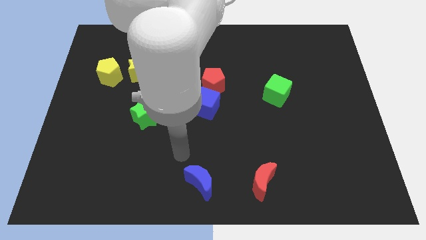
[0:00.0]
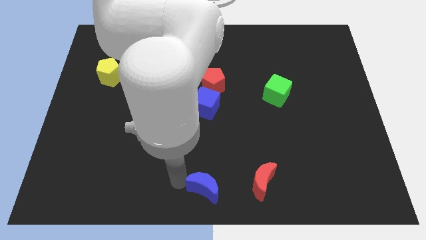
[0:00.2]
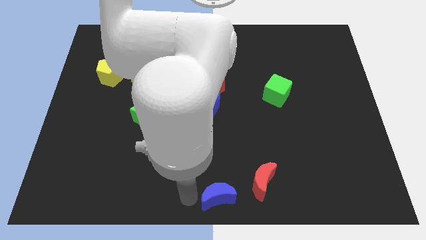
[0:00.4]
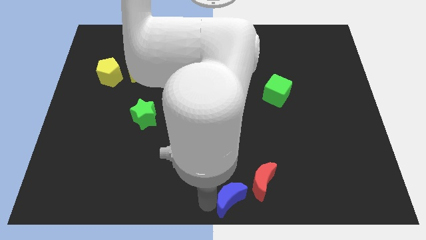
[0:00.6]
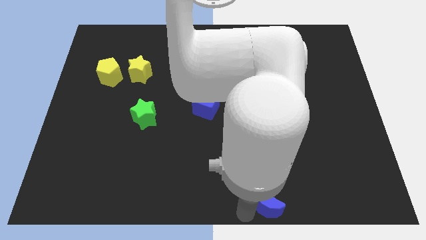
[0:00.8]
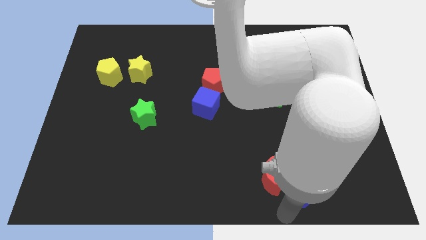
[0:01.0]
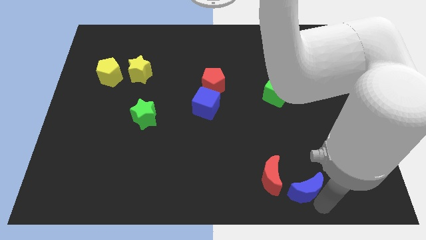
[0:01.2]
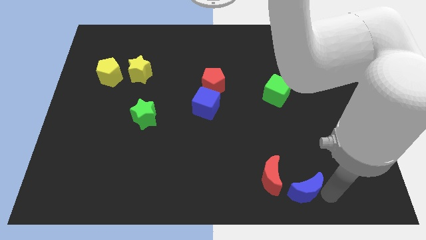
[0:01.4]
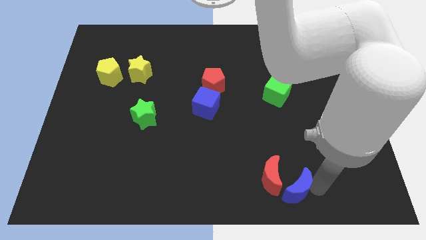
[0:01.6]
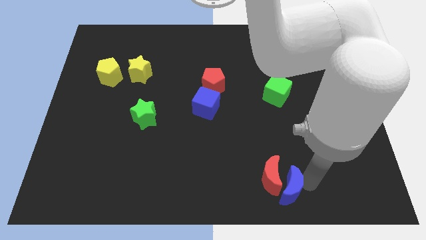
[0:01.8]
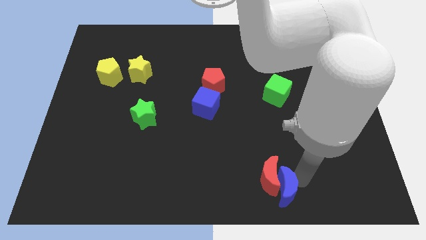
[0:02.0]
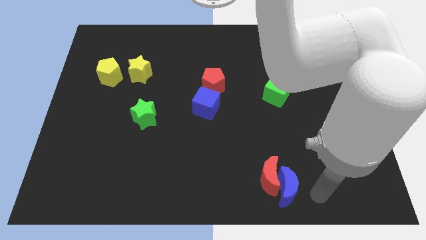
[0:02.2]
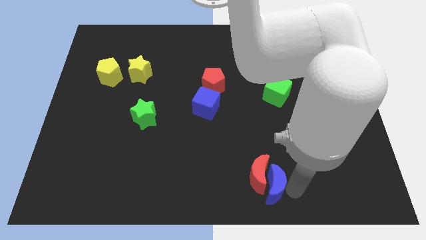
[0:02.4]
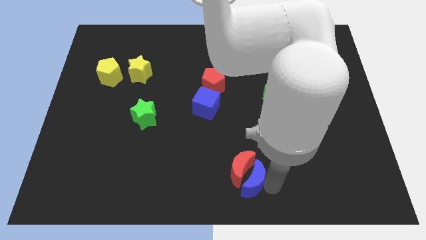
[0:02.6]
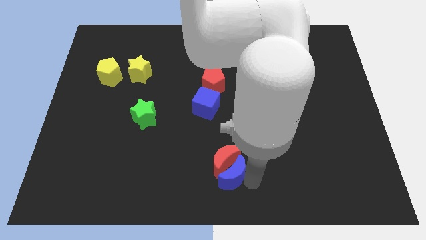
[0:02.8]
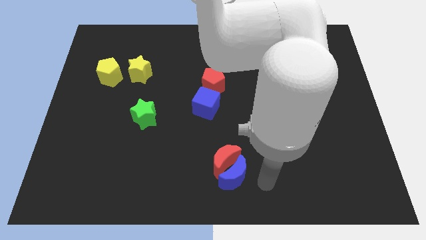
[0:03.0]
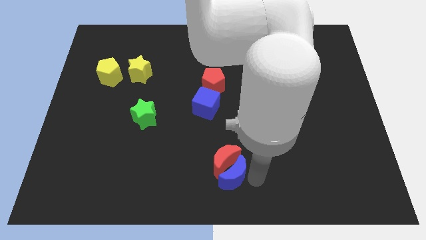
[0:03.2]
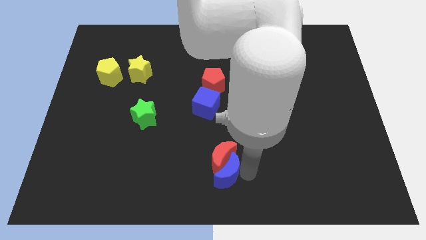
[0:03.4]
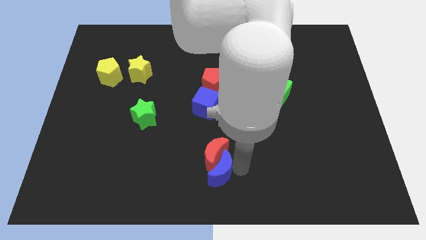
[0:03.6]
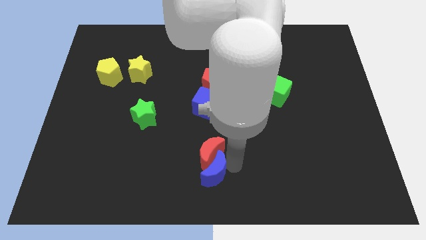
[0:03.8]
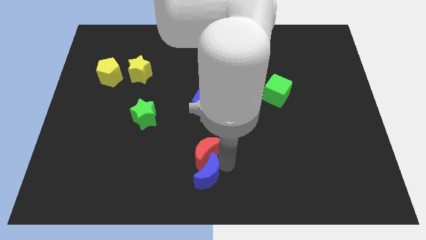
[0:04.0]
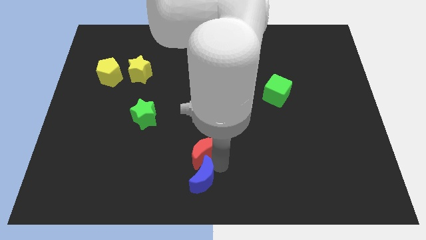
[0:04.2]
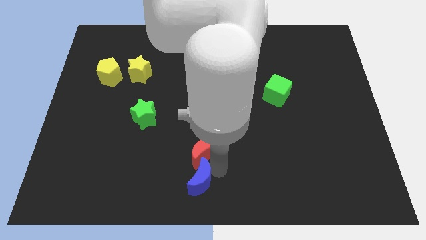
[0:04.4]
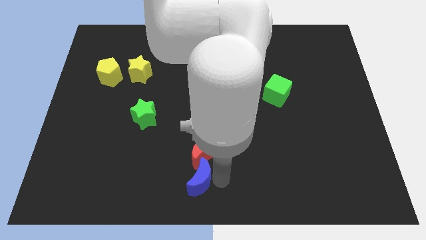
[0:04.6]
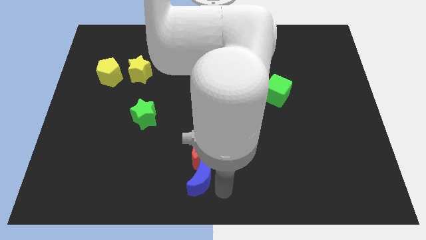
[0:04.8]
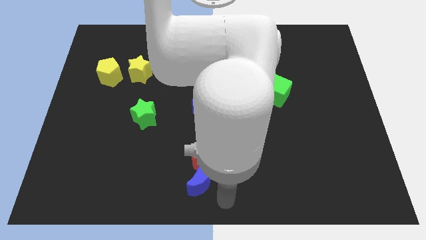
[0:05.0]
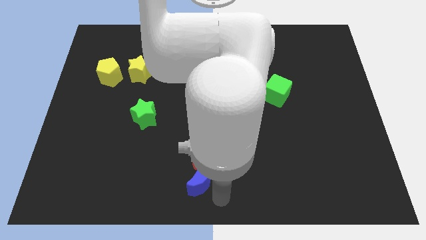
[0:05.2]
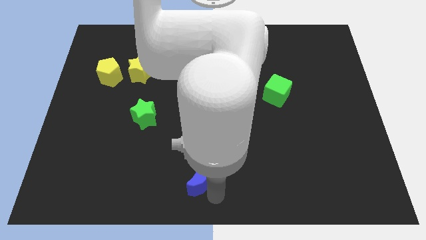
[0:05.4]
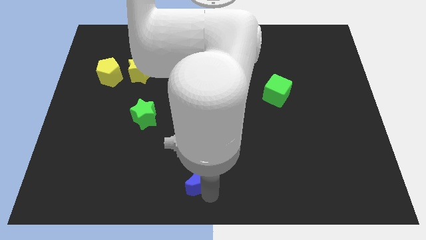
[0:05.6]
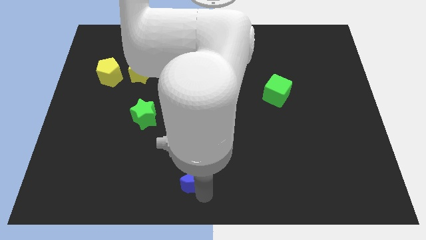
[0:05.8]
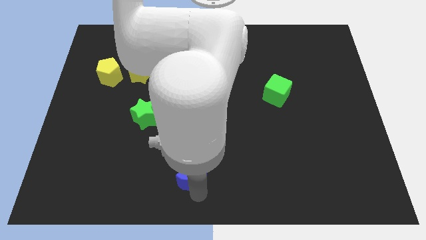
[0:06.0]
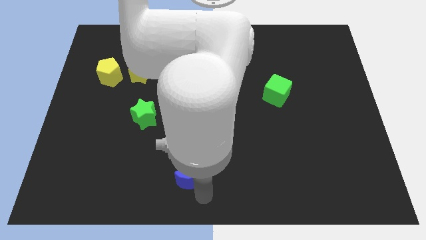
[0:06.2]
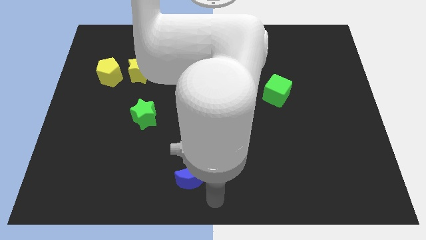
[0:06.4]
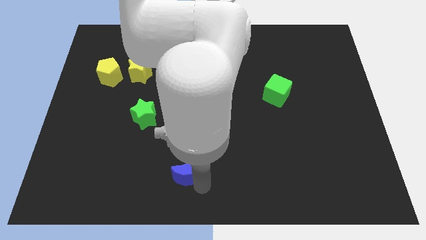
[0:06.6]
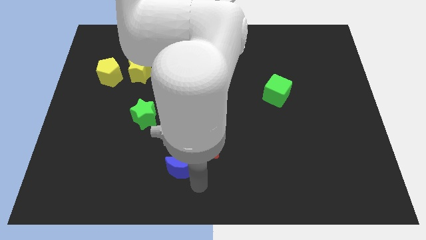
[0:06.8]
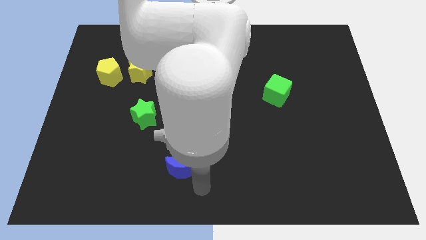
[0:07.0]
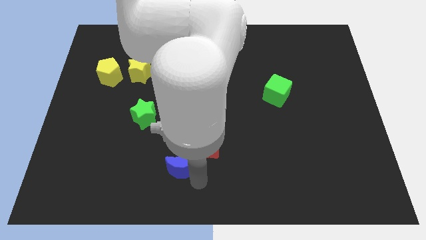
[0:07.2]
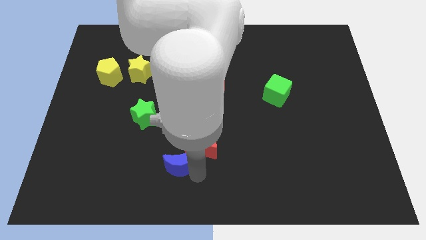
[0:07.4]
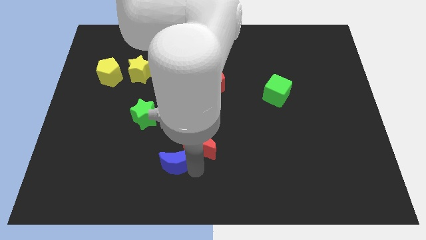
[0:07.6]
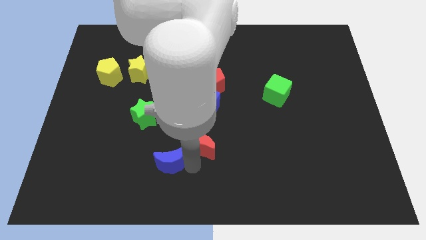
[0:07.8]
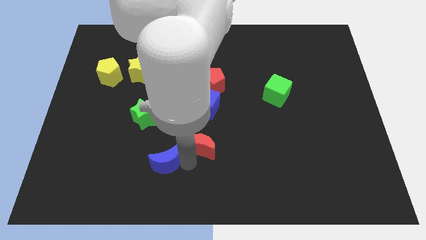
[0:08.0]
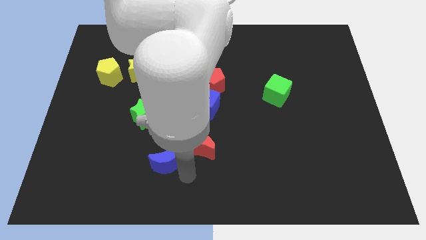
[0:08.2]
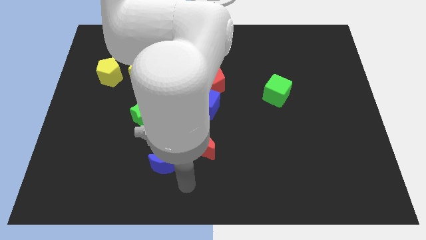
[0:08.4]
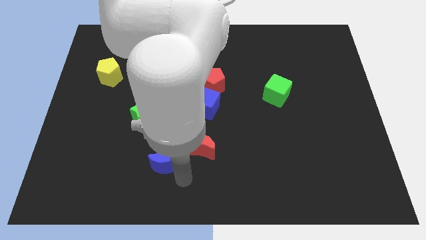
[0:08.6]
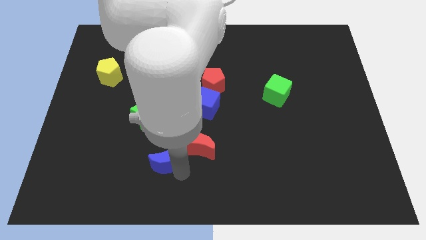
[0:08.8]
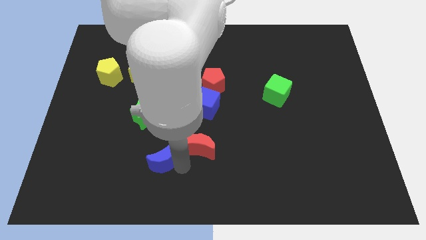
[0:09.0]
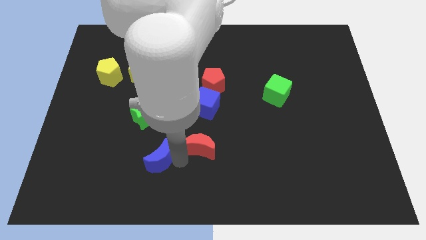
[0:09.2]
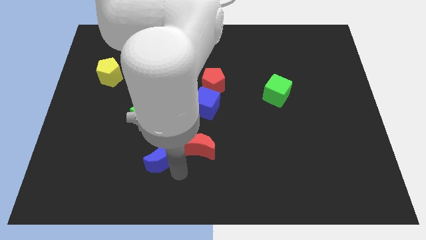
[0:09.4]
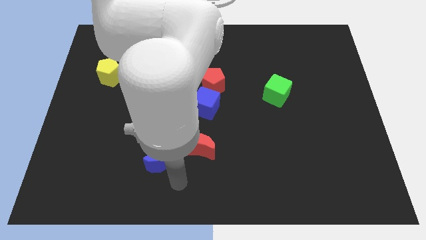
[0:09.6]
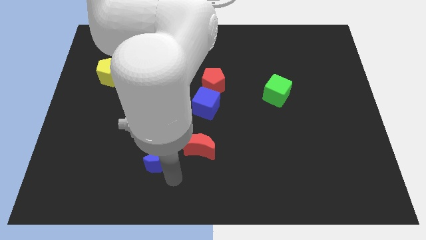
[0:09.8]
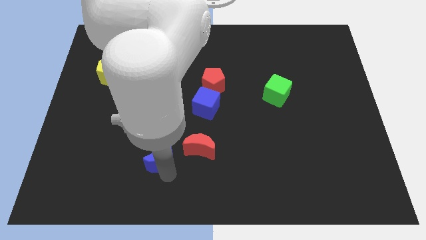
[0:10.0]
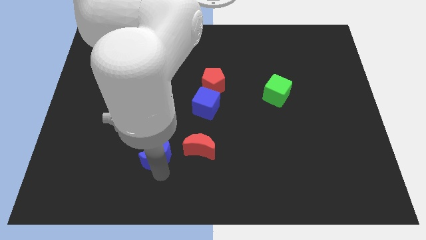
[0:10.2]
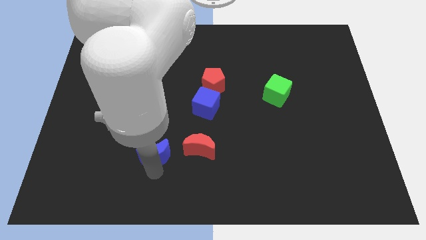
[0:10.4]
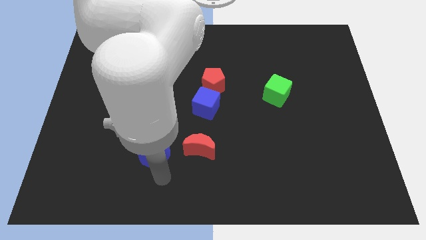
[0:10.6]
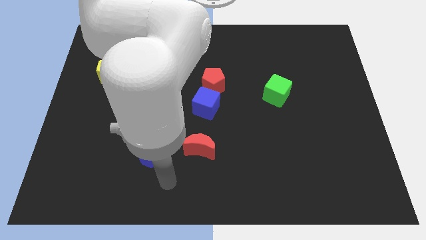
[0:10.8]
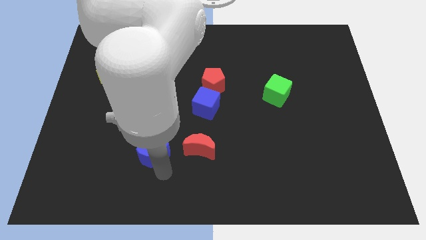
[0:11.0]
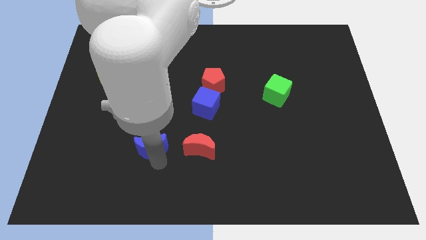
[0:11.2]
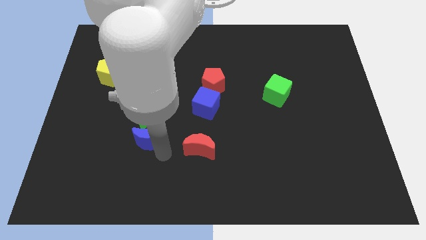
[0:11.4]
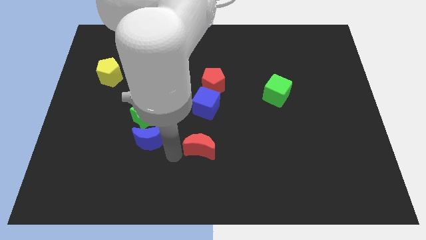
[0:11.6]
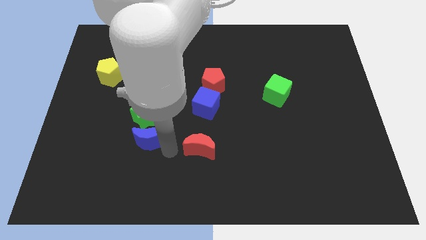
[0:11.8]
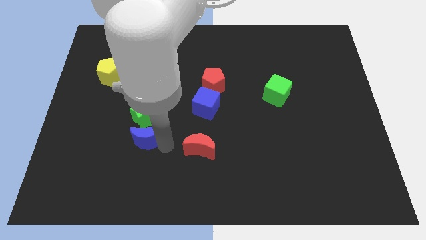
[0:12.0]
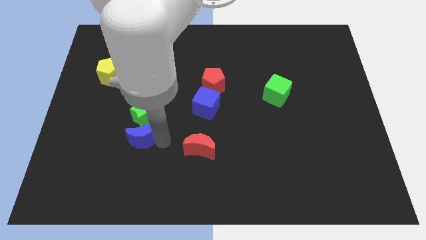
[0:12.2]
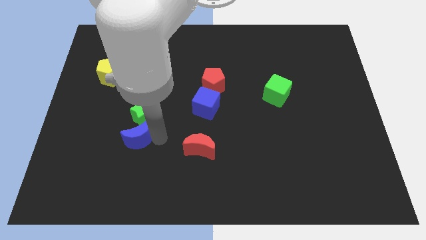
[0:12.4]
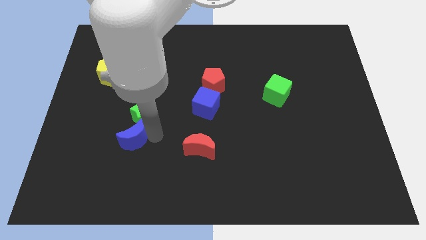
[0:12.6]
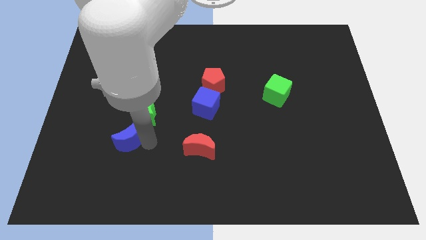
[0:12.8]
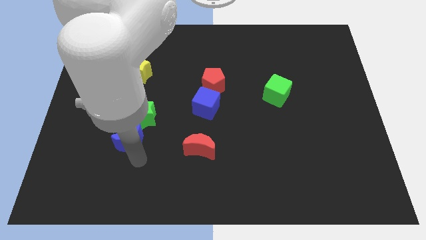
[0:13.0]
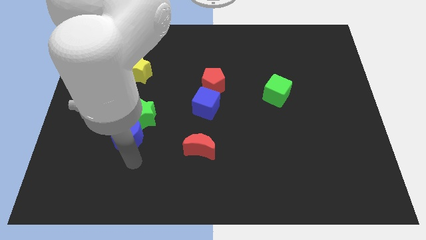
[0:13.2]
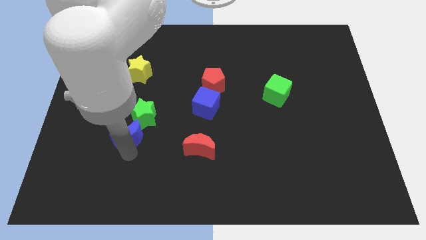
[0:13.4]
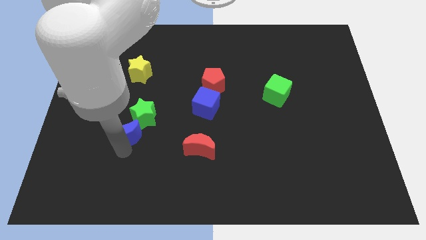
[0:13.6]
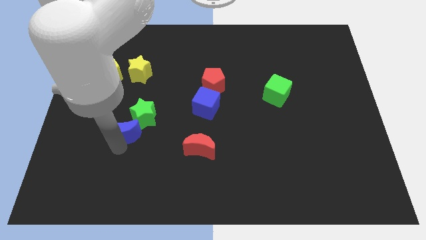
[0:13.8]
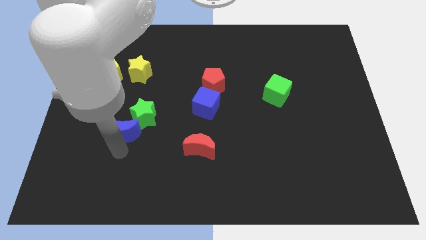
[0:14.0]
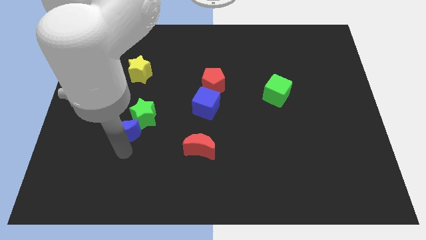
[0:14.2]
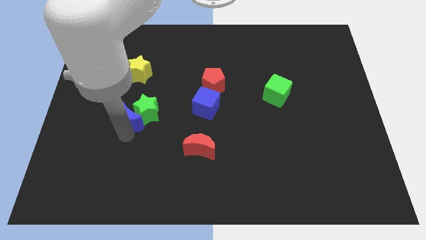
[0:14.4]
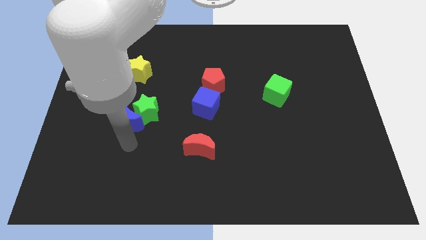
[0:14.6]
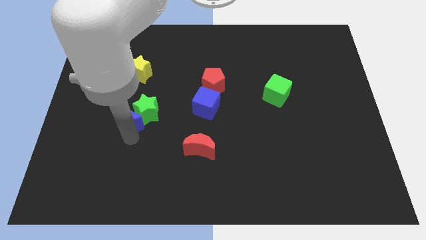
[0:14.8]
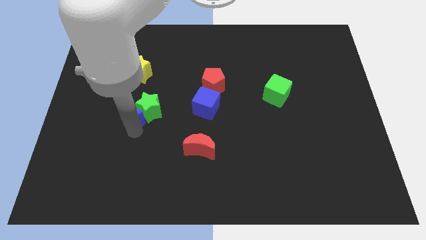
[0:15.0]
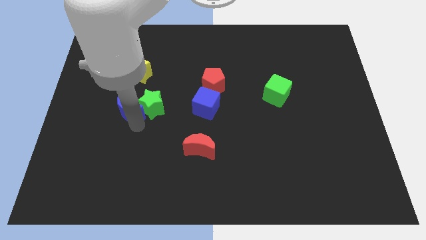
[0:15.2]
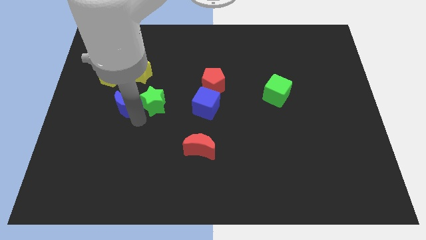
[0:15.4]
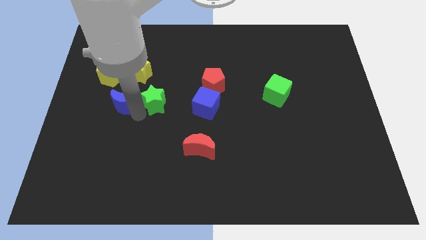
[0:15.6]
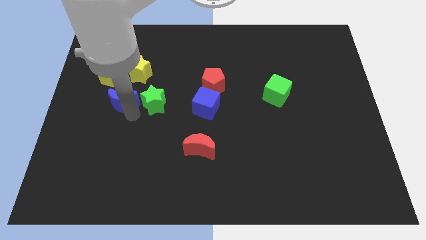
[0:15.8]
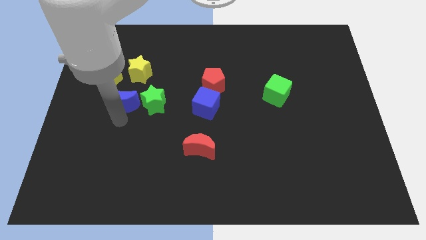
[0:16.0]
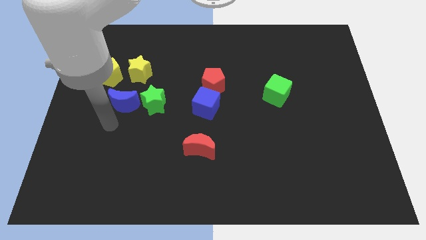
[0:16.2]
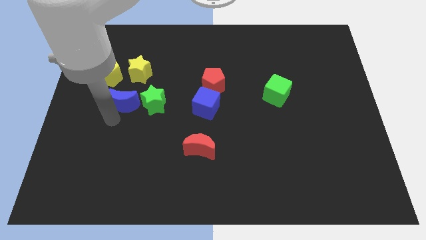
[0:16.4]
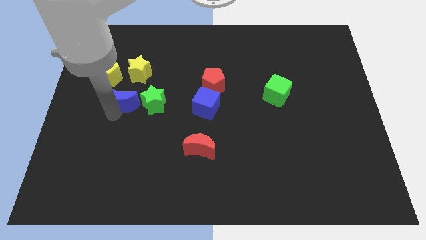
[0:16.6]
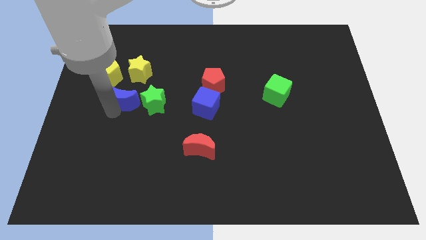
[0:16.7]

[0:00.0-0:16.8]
push the blue moon to the top left of the green star
